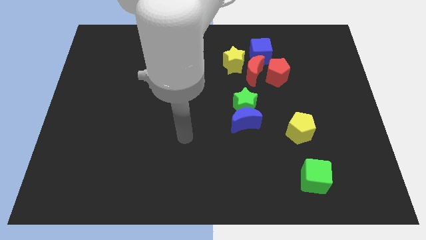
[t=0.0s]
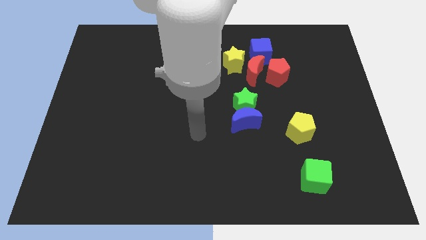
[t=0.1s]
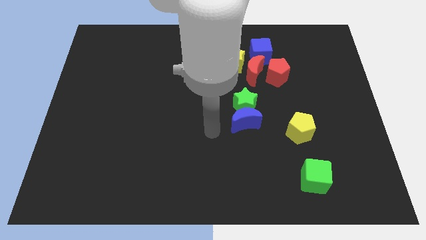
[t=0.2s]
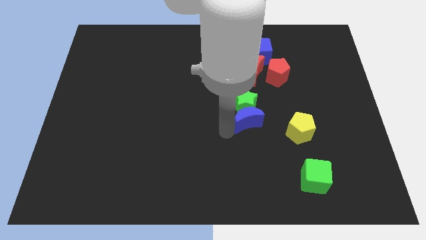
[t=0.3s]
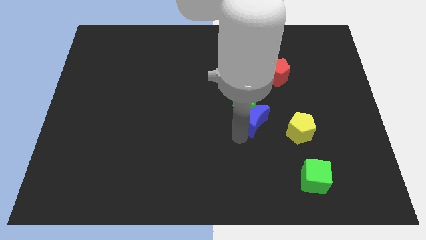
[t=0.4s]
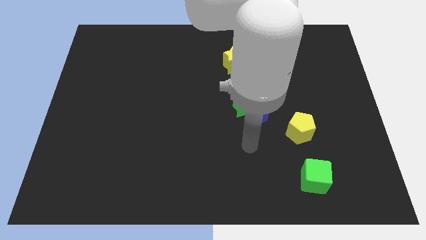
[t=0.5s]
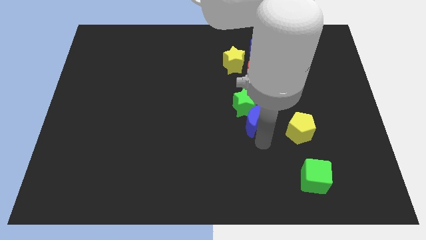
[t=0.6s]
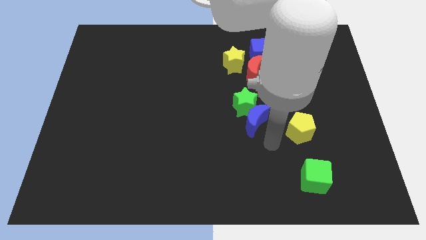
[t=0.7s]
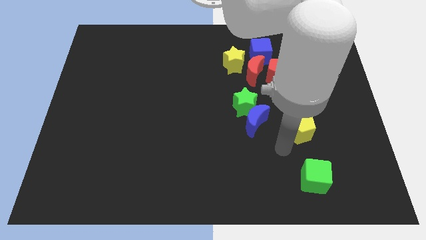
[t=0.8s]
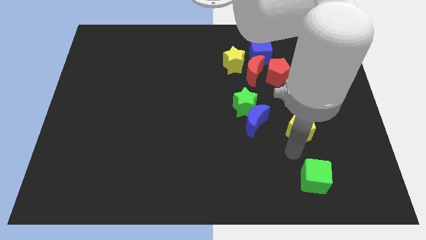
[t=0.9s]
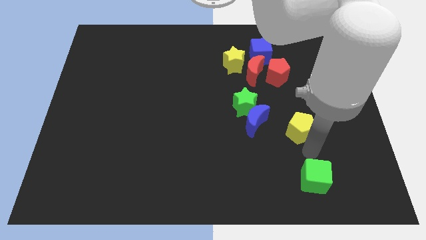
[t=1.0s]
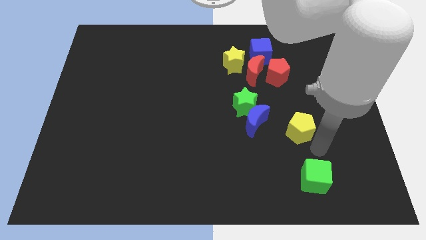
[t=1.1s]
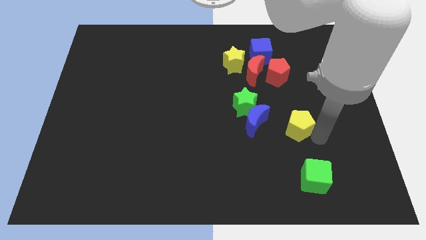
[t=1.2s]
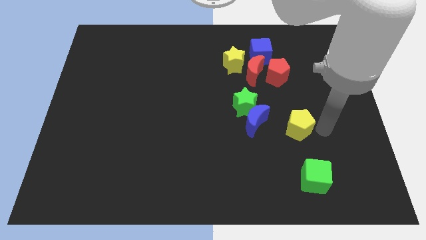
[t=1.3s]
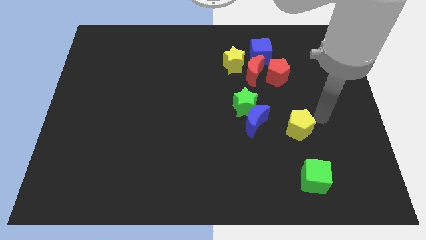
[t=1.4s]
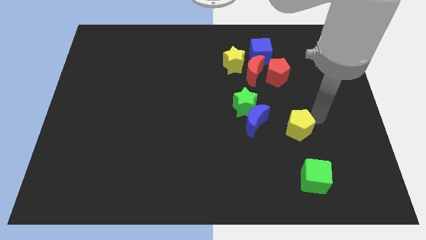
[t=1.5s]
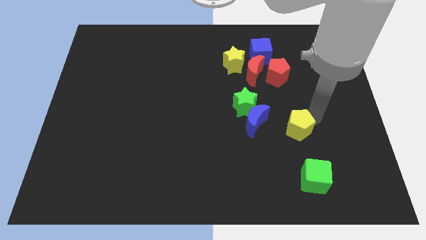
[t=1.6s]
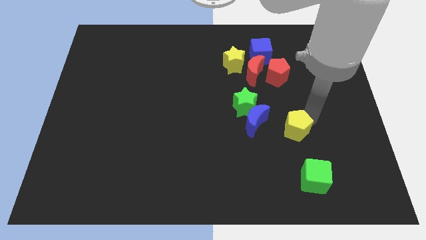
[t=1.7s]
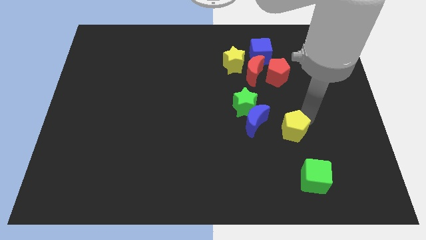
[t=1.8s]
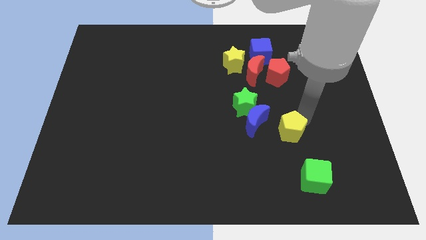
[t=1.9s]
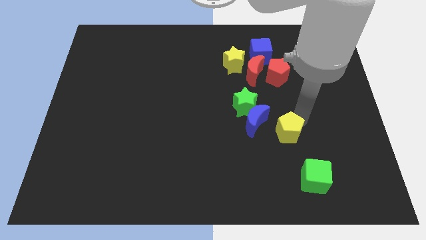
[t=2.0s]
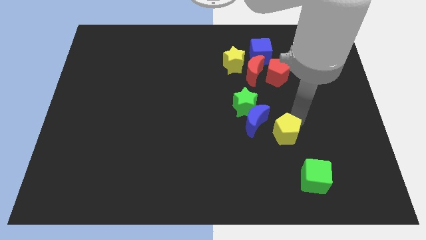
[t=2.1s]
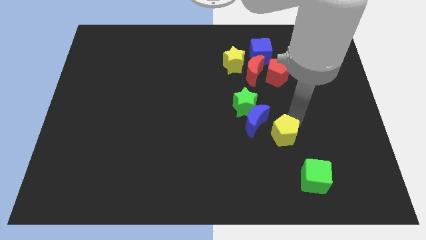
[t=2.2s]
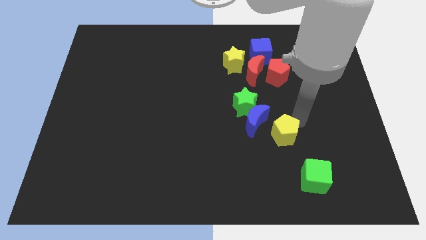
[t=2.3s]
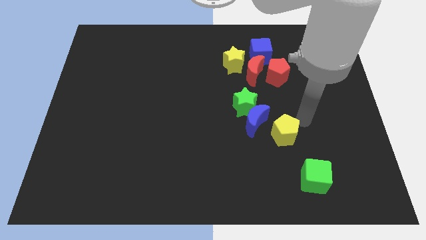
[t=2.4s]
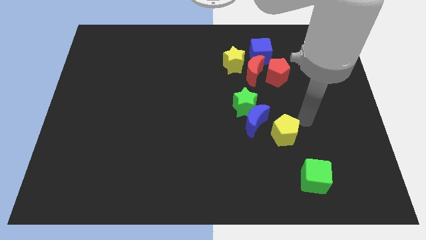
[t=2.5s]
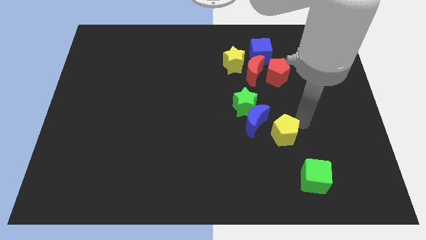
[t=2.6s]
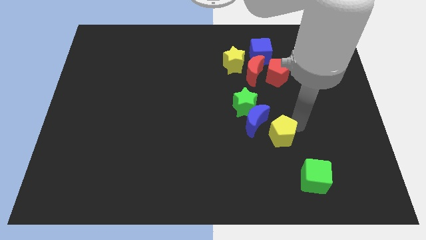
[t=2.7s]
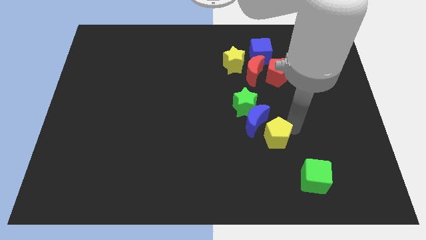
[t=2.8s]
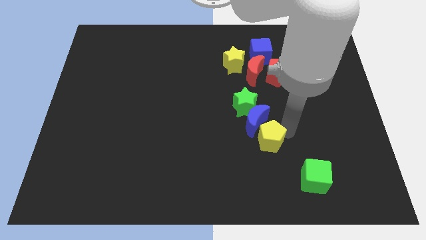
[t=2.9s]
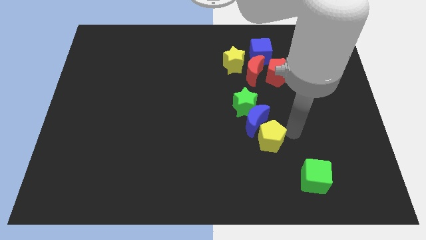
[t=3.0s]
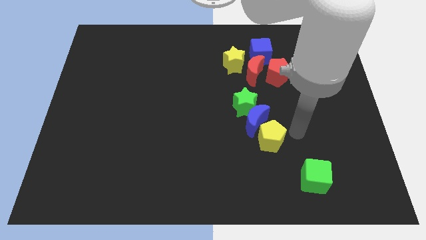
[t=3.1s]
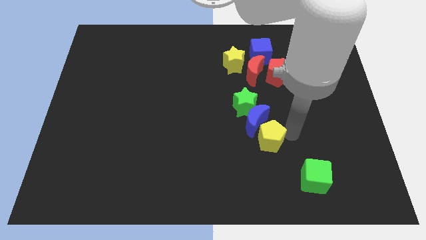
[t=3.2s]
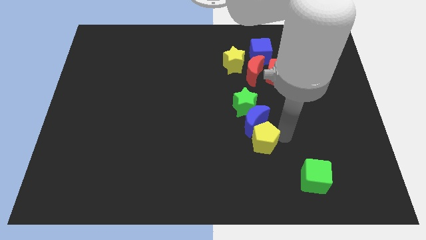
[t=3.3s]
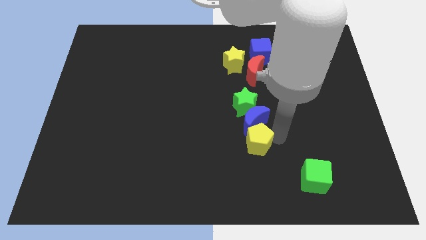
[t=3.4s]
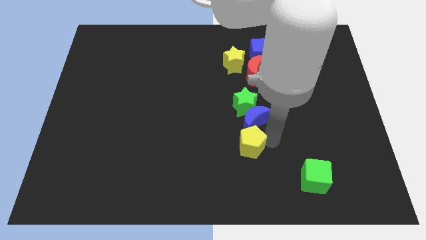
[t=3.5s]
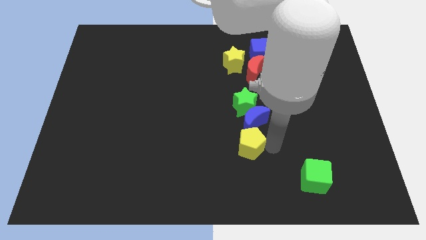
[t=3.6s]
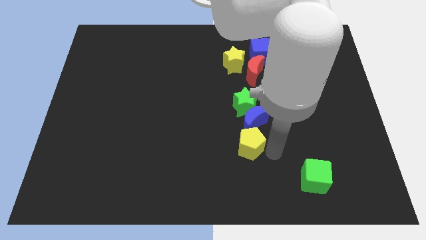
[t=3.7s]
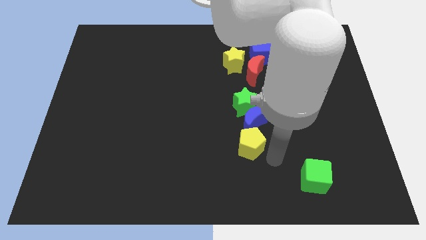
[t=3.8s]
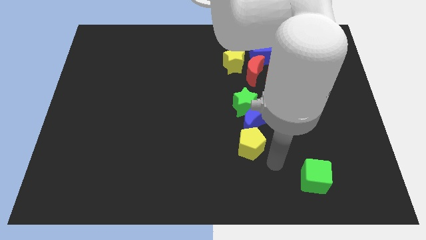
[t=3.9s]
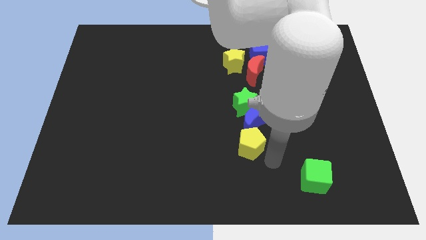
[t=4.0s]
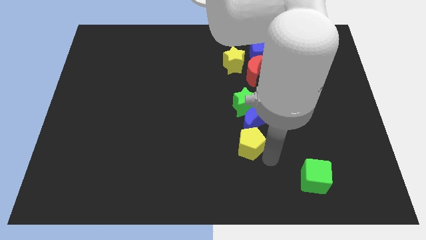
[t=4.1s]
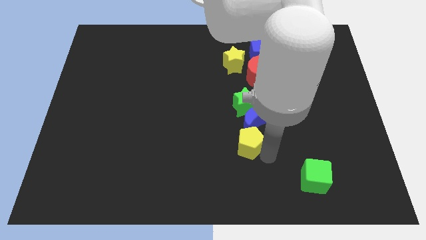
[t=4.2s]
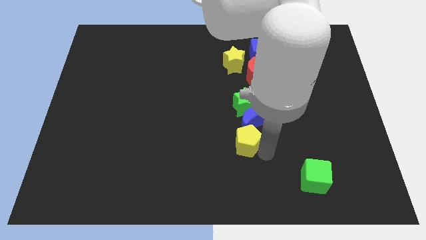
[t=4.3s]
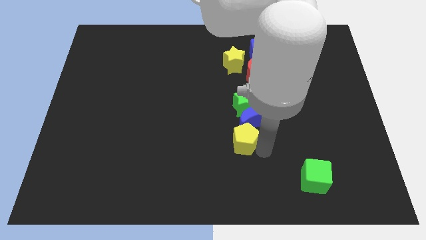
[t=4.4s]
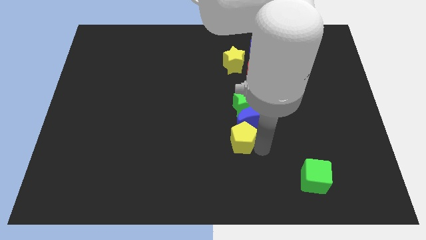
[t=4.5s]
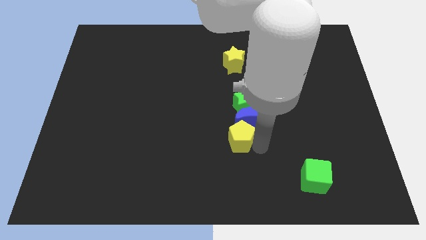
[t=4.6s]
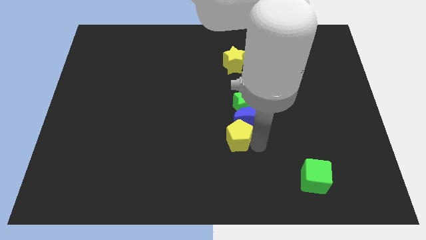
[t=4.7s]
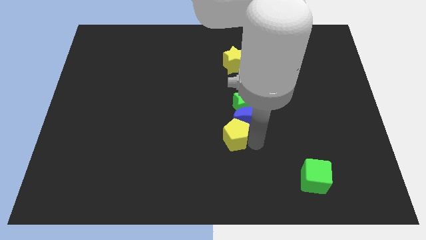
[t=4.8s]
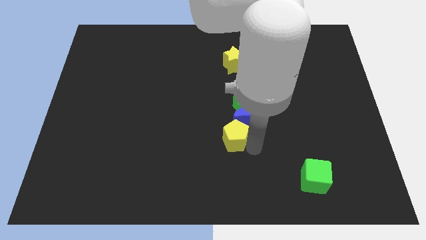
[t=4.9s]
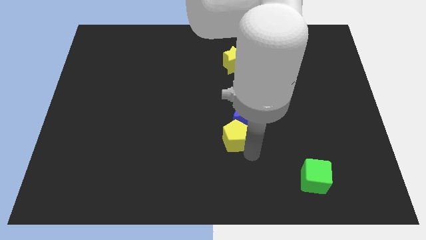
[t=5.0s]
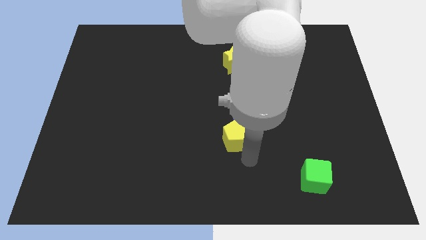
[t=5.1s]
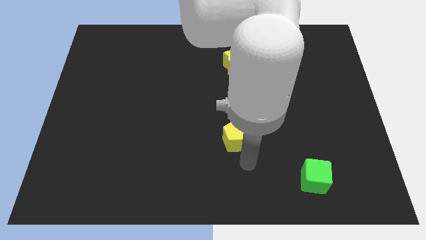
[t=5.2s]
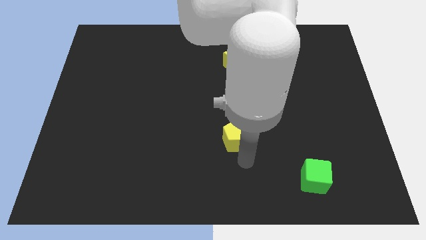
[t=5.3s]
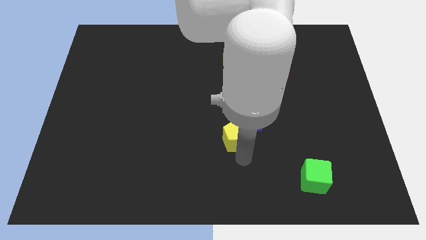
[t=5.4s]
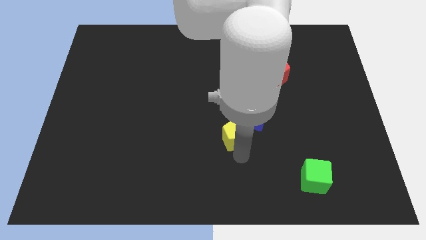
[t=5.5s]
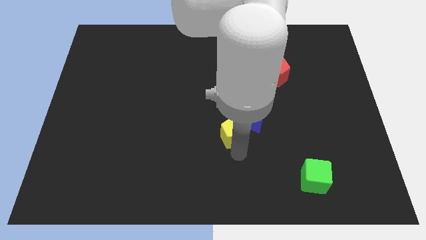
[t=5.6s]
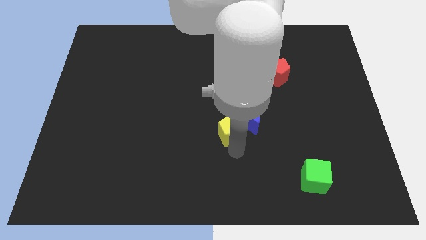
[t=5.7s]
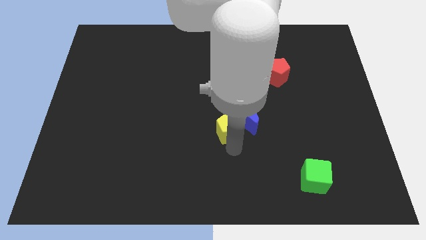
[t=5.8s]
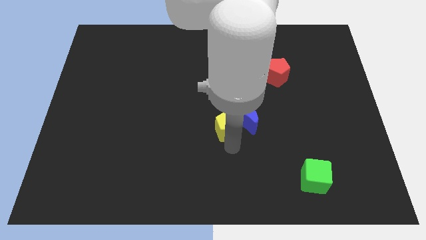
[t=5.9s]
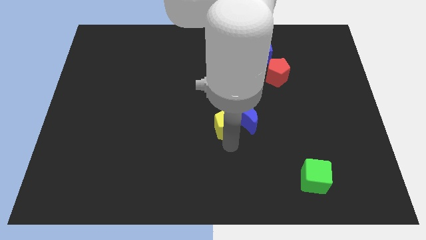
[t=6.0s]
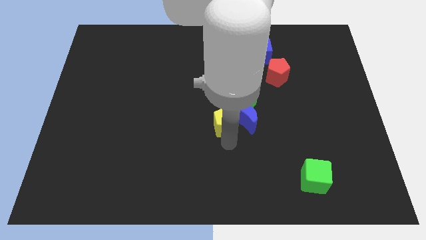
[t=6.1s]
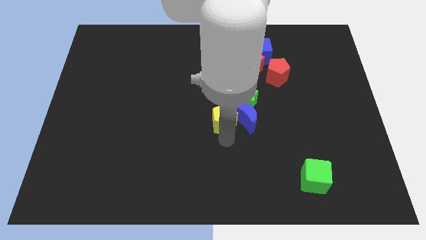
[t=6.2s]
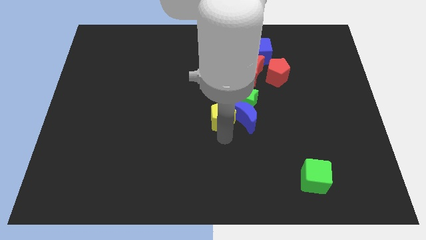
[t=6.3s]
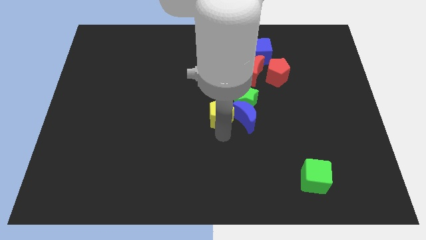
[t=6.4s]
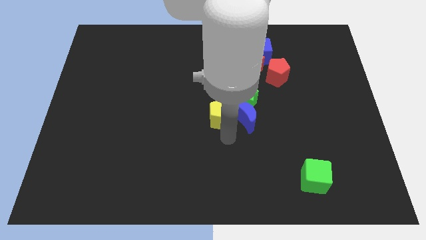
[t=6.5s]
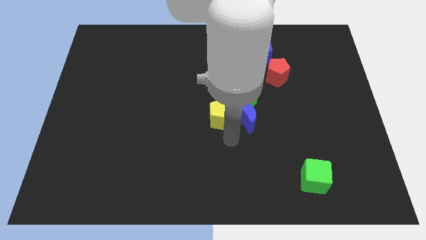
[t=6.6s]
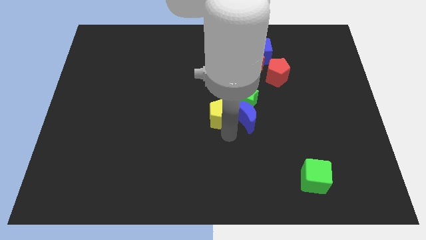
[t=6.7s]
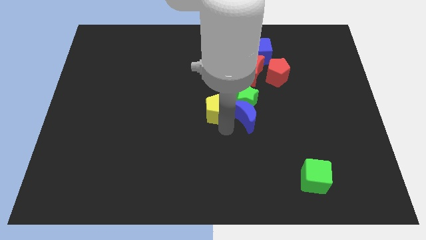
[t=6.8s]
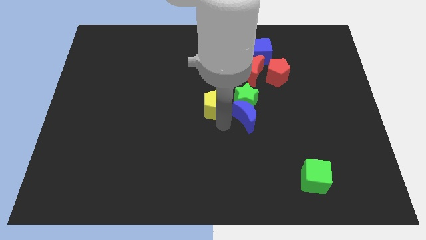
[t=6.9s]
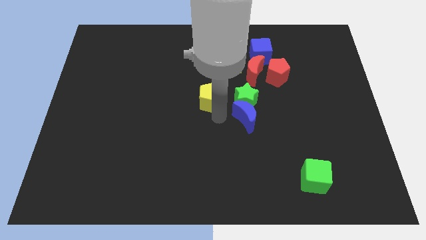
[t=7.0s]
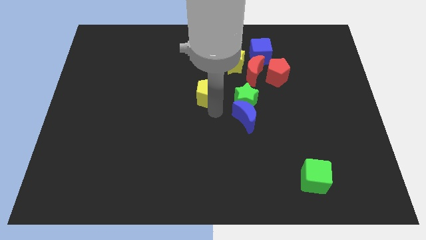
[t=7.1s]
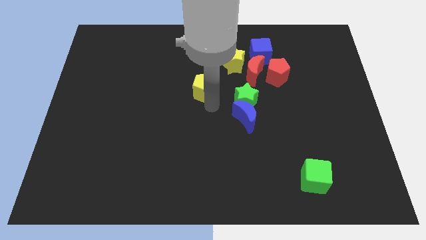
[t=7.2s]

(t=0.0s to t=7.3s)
slide the yellow pentagon up and then left

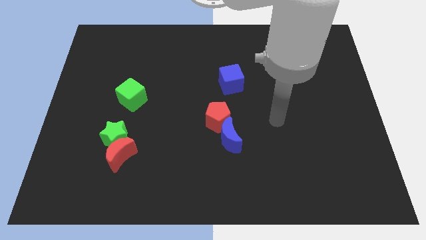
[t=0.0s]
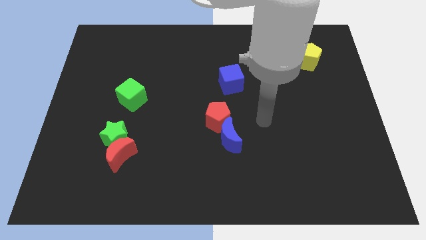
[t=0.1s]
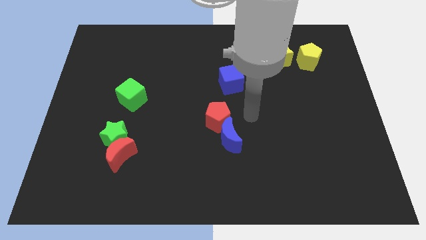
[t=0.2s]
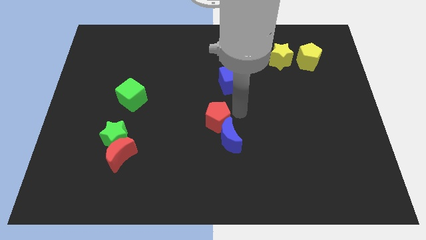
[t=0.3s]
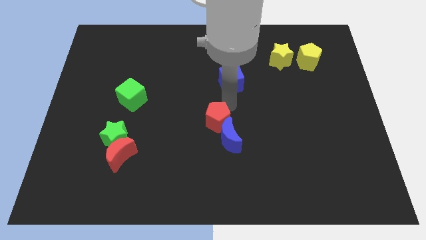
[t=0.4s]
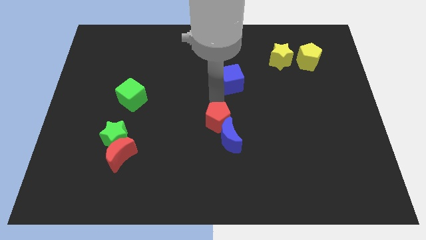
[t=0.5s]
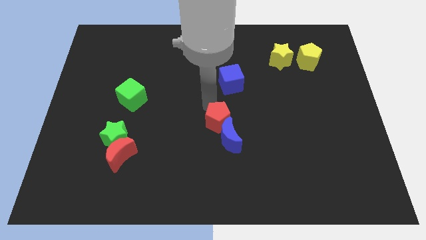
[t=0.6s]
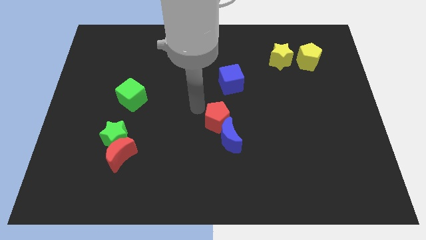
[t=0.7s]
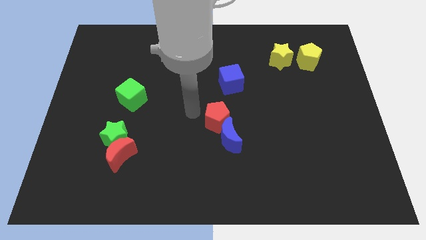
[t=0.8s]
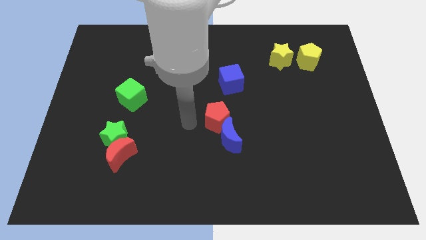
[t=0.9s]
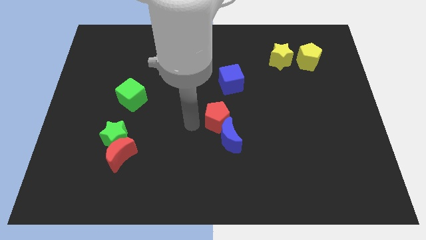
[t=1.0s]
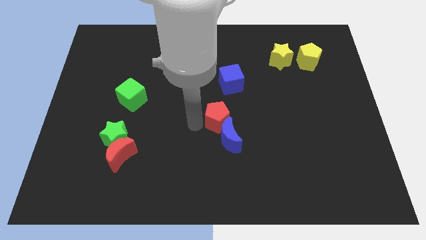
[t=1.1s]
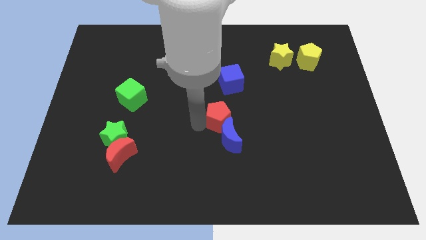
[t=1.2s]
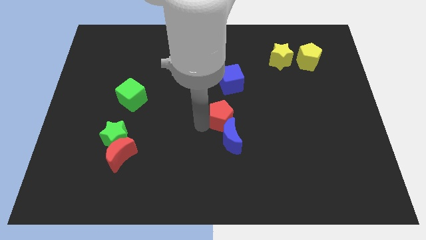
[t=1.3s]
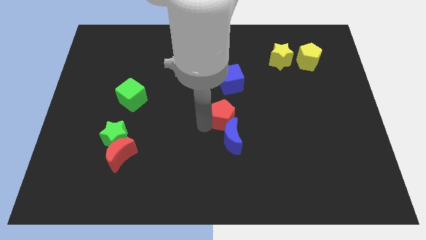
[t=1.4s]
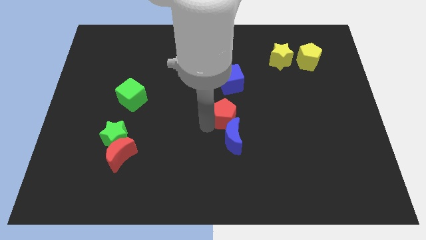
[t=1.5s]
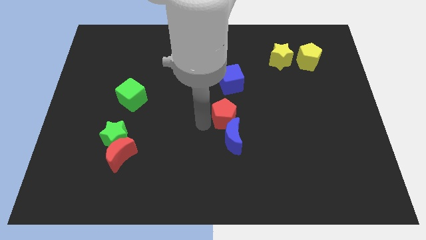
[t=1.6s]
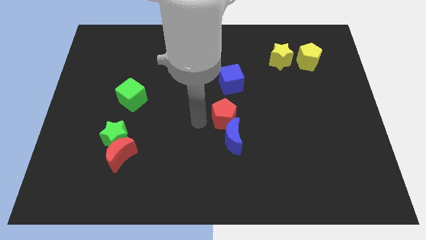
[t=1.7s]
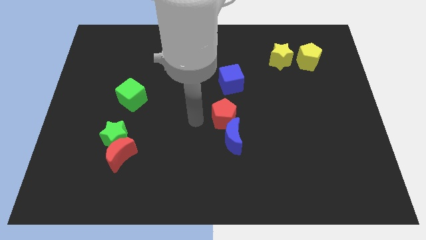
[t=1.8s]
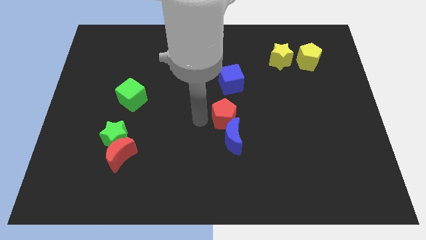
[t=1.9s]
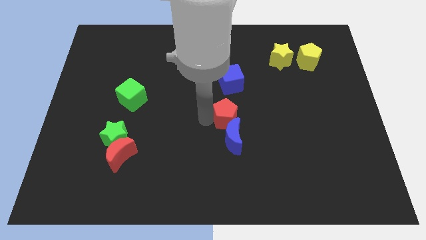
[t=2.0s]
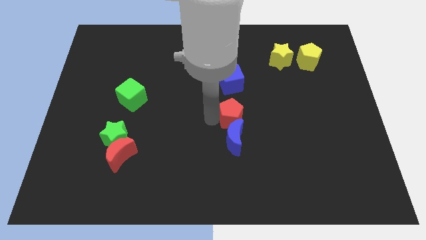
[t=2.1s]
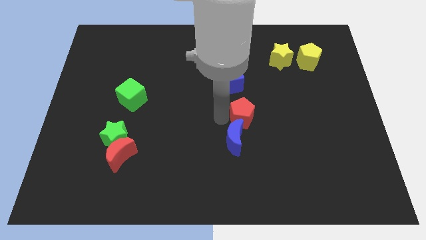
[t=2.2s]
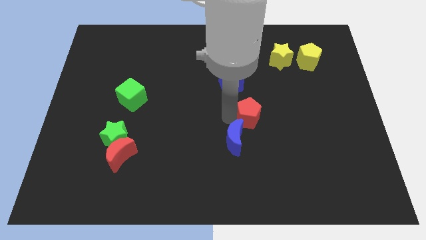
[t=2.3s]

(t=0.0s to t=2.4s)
slide the red pentagon a little right
